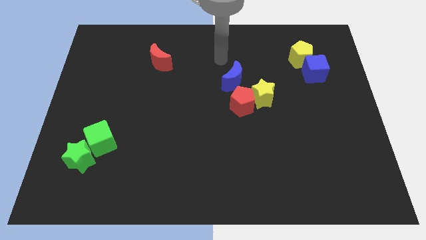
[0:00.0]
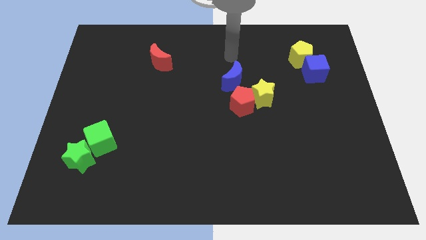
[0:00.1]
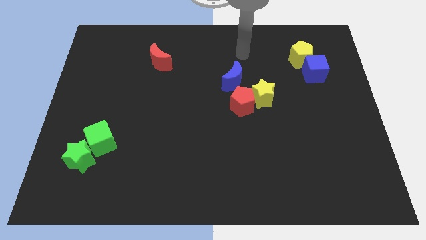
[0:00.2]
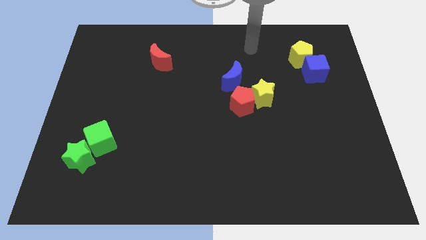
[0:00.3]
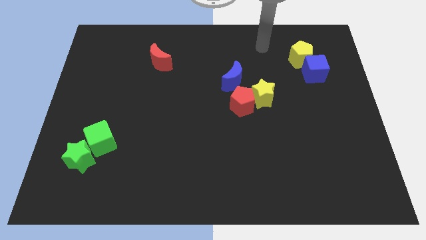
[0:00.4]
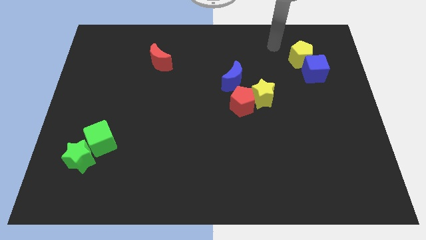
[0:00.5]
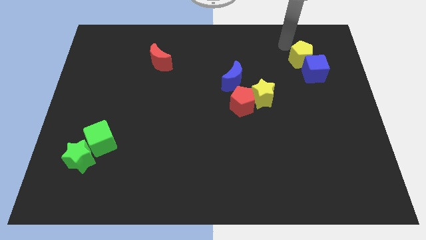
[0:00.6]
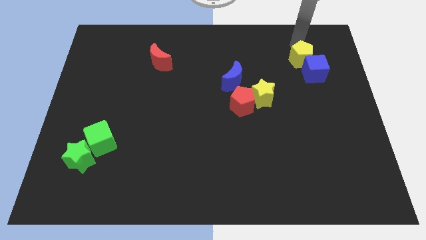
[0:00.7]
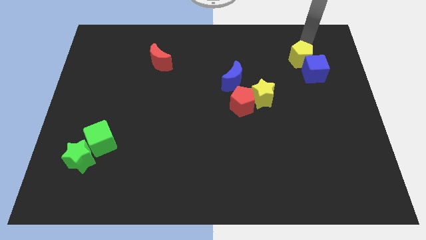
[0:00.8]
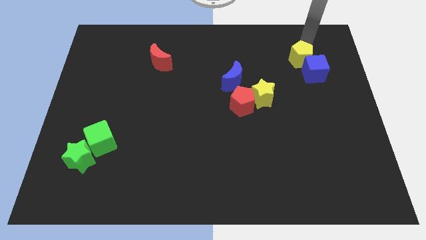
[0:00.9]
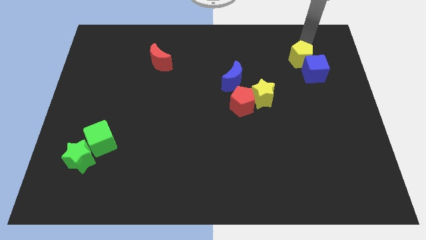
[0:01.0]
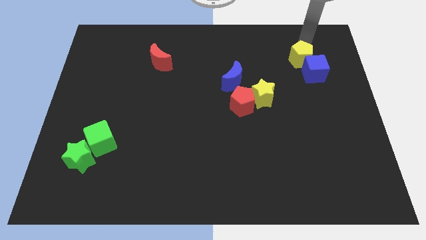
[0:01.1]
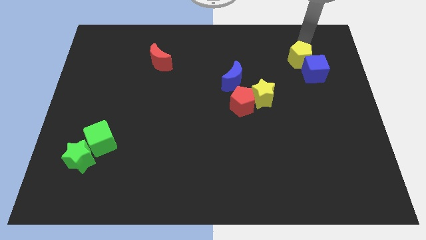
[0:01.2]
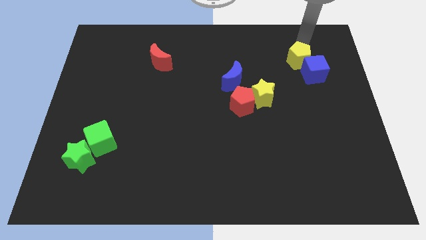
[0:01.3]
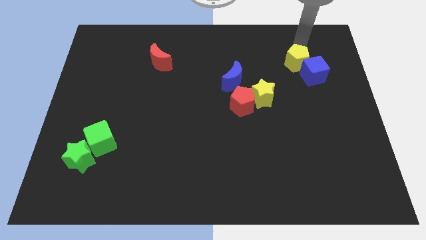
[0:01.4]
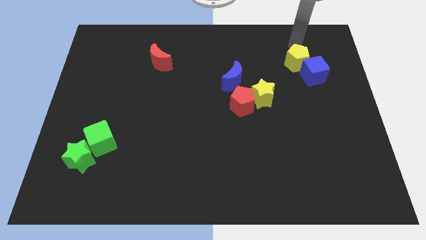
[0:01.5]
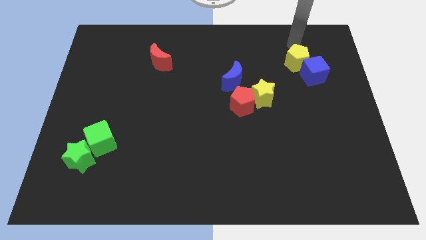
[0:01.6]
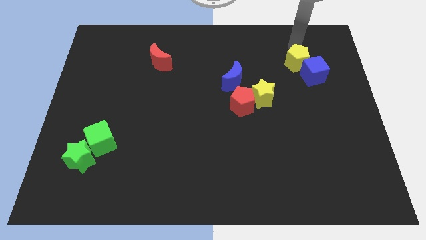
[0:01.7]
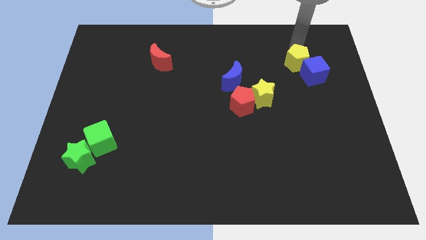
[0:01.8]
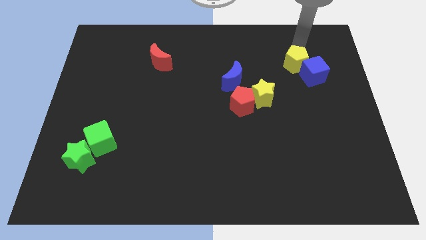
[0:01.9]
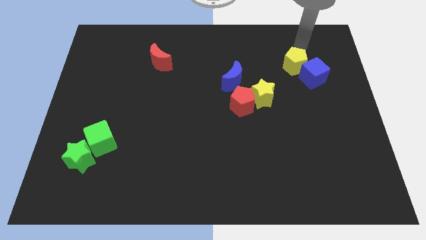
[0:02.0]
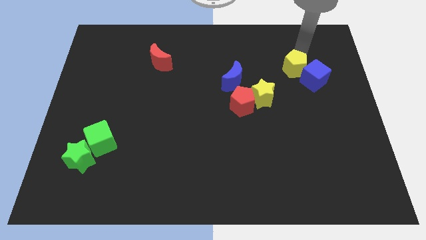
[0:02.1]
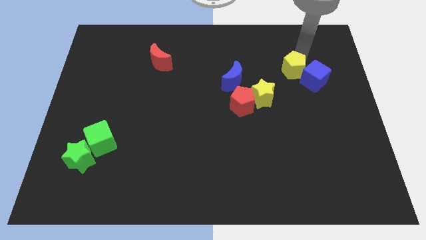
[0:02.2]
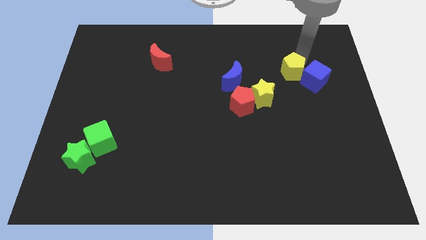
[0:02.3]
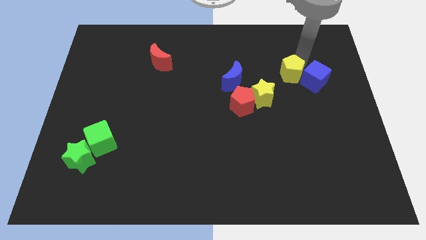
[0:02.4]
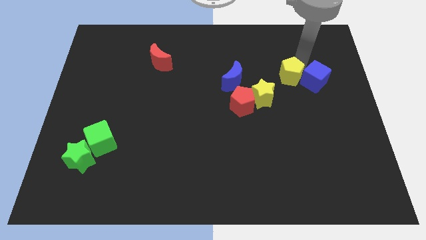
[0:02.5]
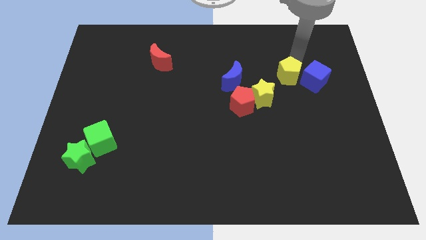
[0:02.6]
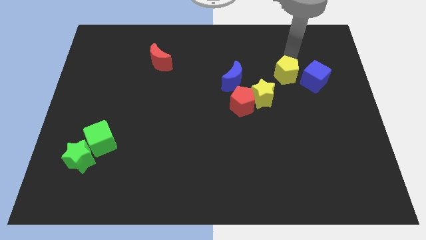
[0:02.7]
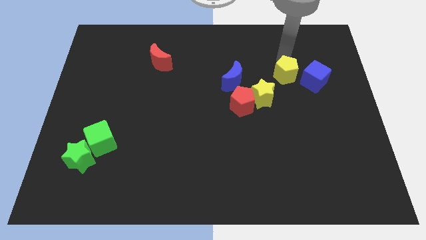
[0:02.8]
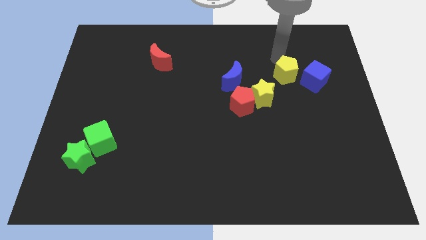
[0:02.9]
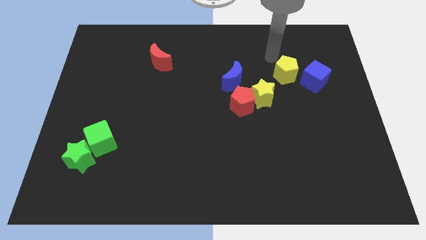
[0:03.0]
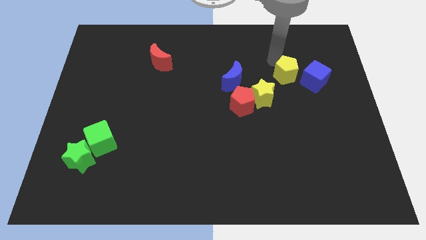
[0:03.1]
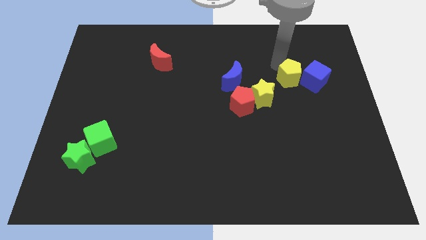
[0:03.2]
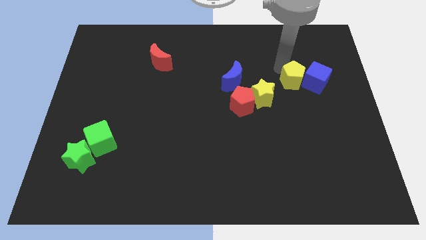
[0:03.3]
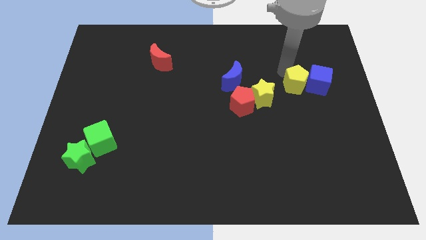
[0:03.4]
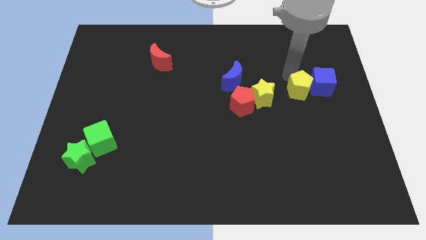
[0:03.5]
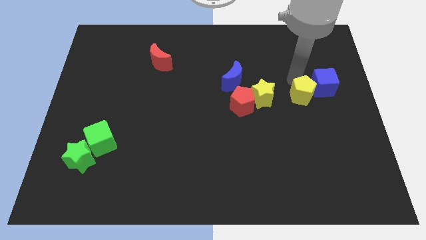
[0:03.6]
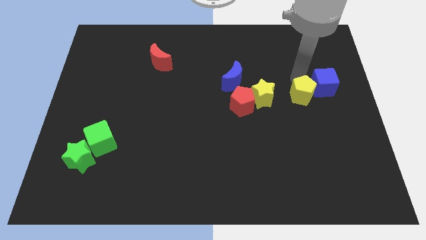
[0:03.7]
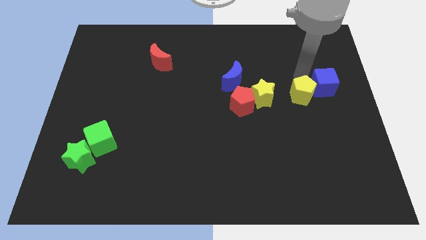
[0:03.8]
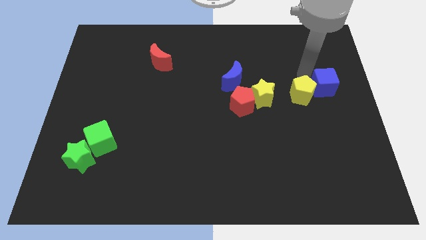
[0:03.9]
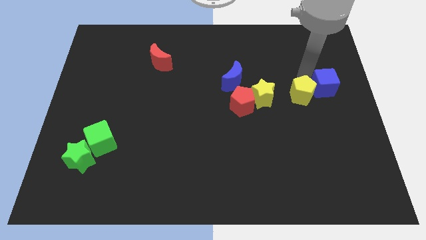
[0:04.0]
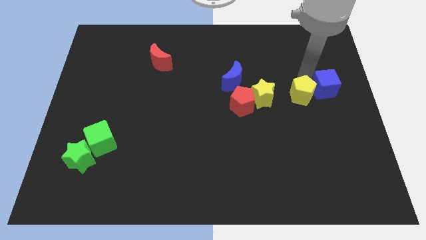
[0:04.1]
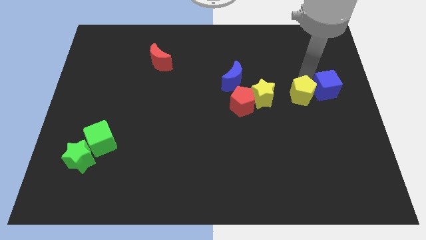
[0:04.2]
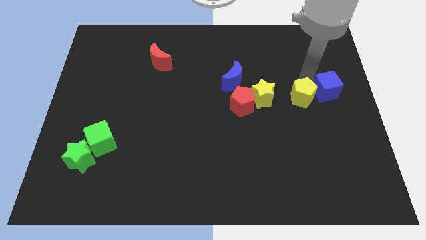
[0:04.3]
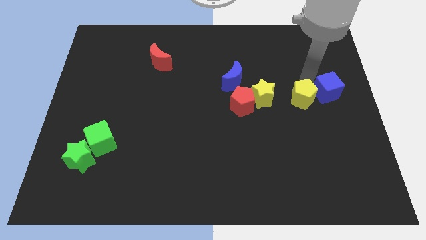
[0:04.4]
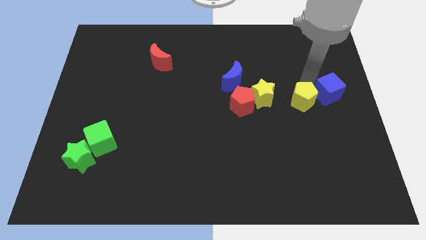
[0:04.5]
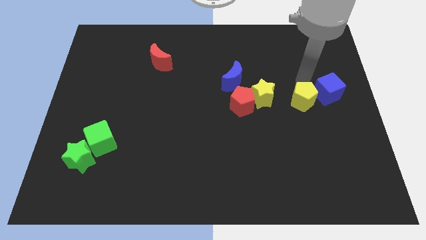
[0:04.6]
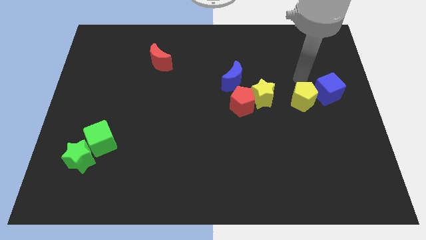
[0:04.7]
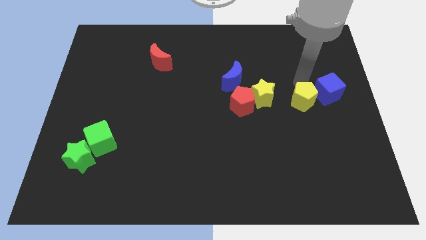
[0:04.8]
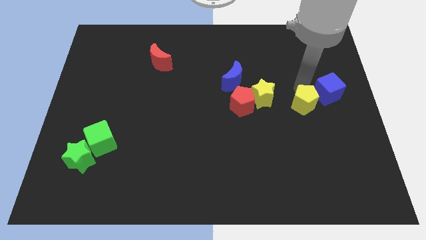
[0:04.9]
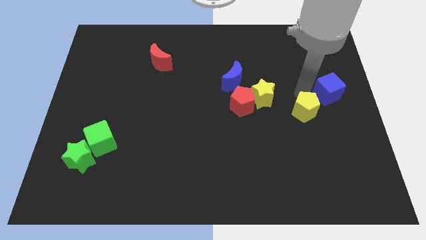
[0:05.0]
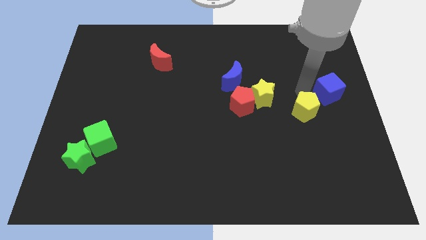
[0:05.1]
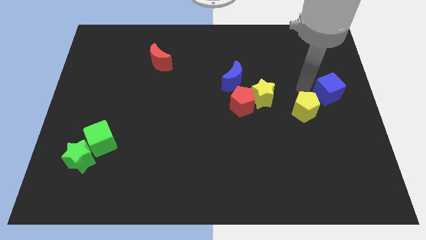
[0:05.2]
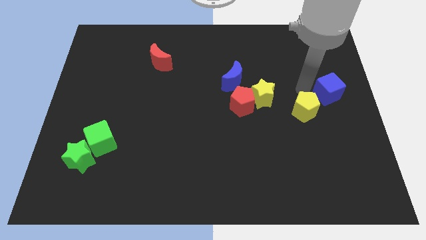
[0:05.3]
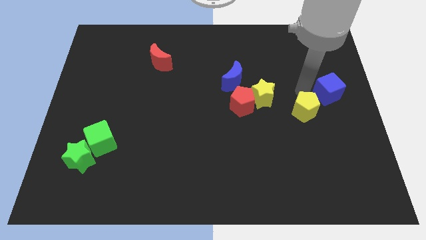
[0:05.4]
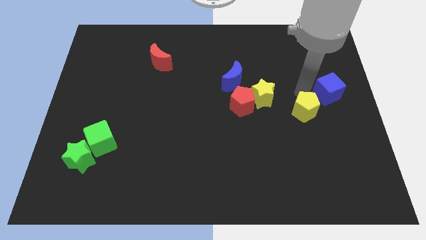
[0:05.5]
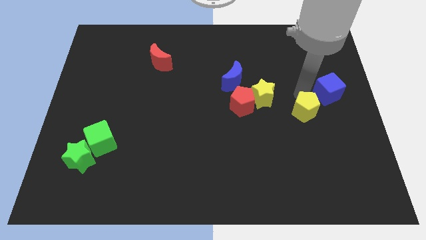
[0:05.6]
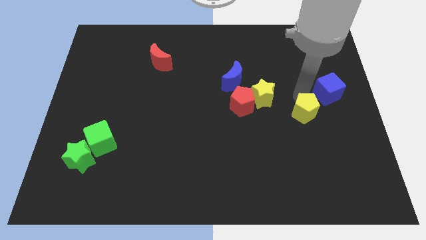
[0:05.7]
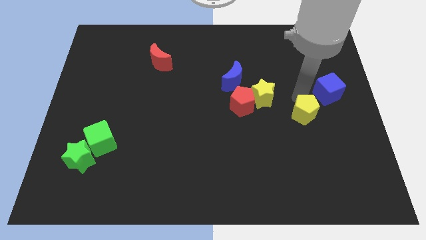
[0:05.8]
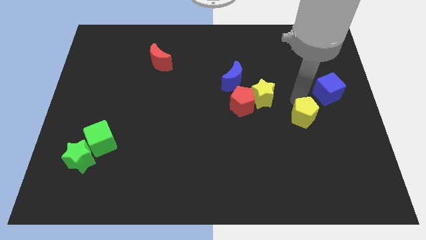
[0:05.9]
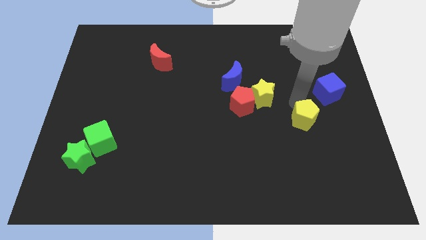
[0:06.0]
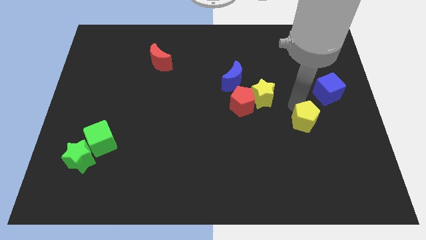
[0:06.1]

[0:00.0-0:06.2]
slide the yellow pentagon down

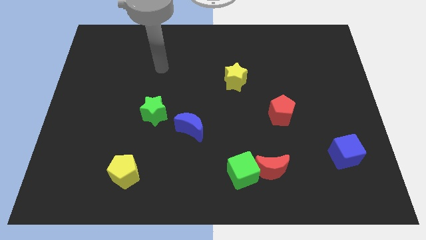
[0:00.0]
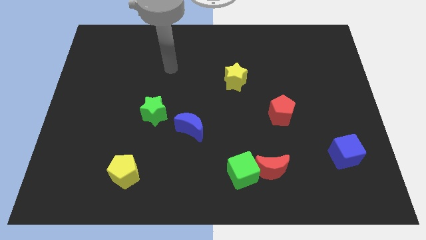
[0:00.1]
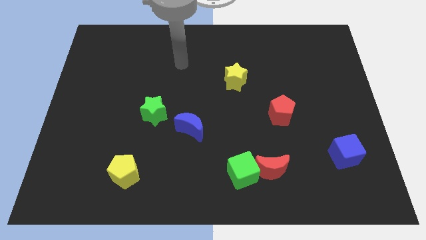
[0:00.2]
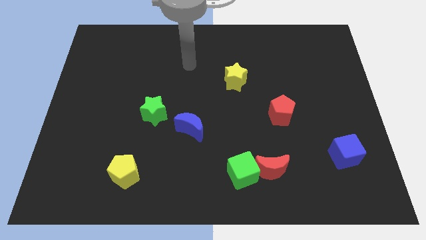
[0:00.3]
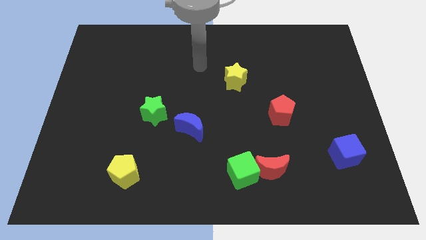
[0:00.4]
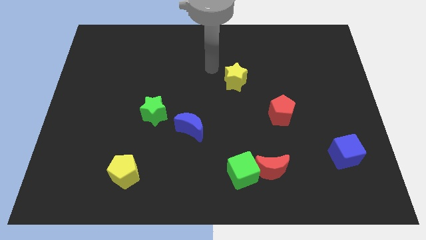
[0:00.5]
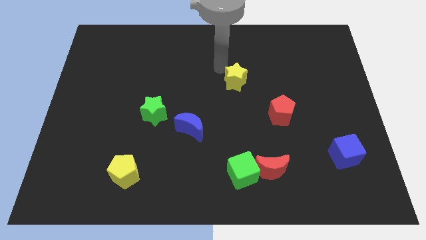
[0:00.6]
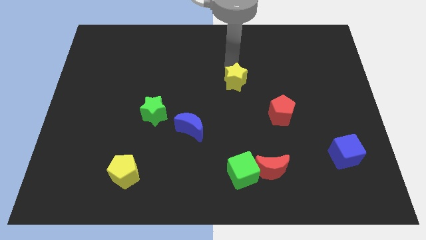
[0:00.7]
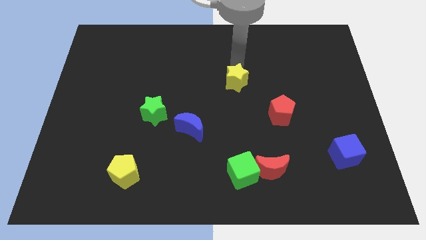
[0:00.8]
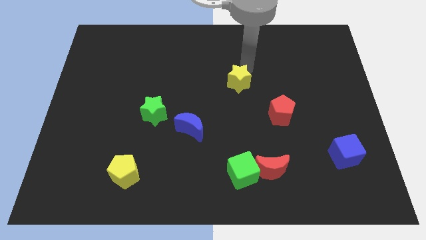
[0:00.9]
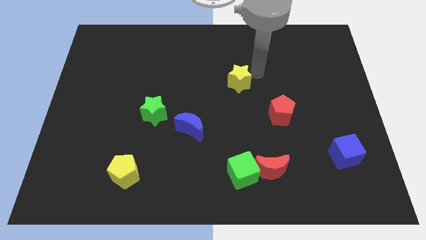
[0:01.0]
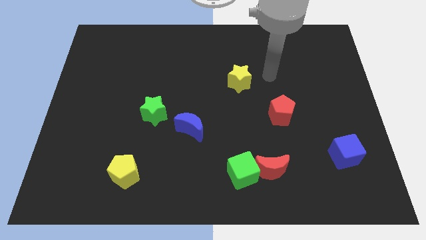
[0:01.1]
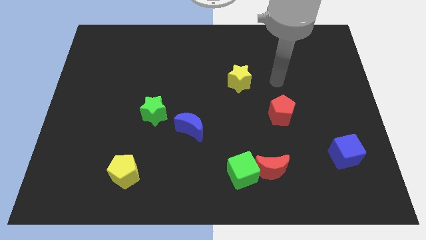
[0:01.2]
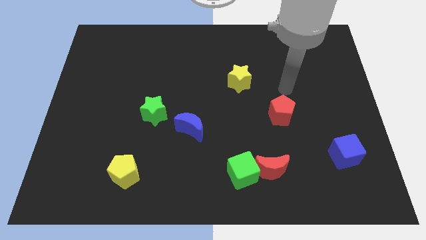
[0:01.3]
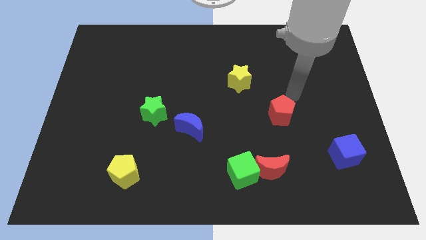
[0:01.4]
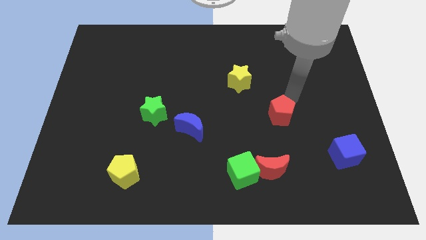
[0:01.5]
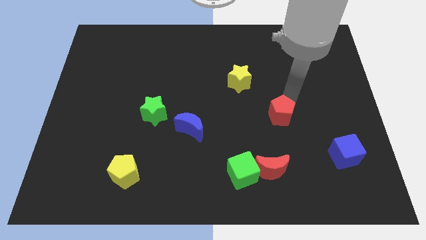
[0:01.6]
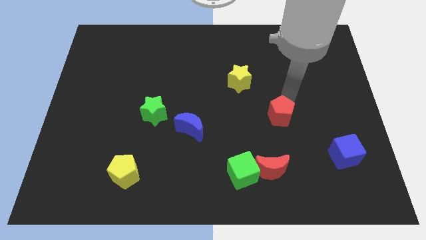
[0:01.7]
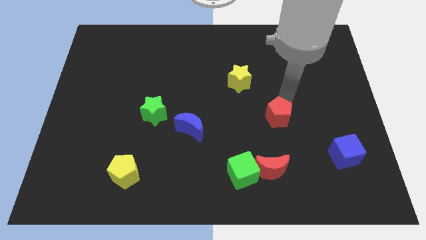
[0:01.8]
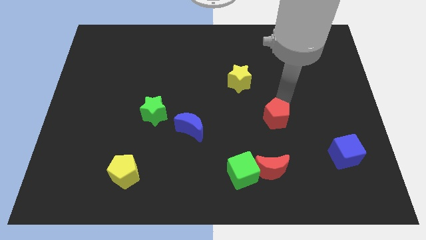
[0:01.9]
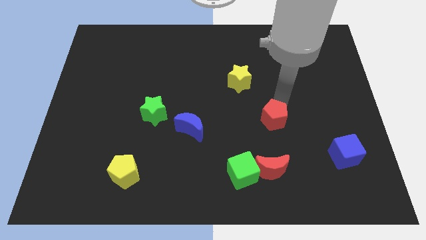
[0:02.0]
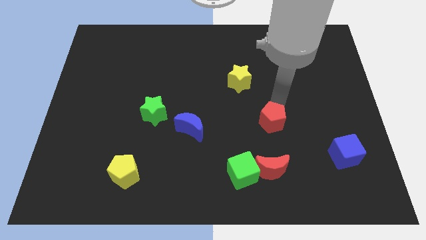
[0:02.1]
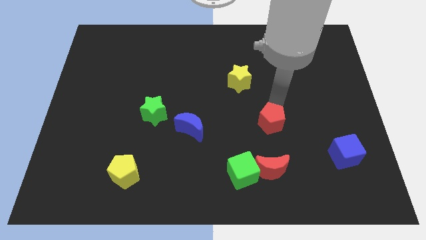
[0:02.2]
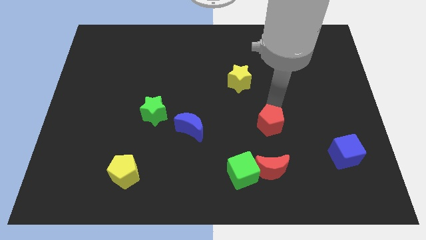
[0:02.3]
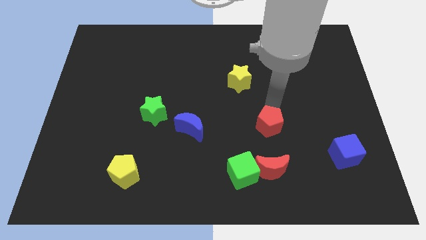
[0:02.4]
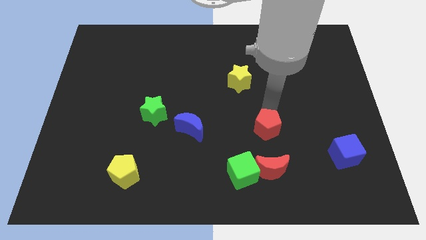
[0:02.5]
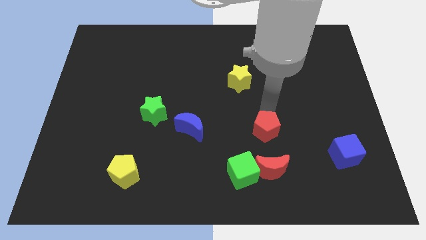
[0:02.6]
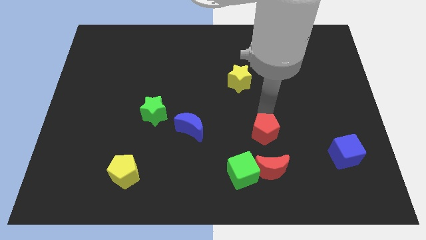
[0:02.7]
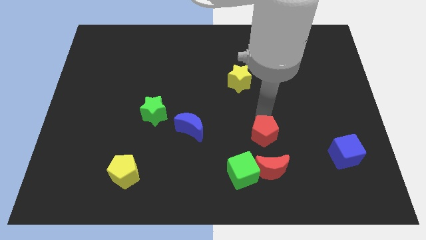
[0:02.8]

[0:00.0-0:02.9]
push the red pentagon somewhat downwards and then left
